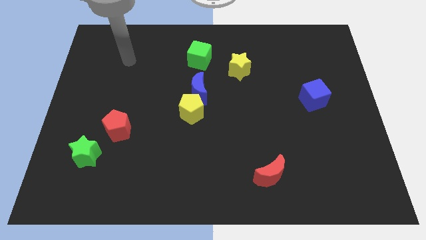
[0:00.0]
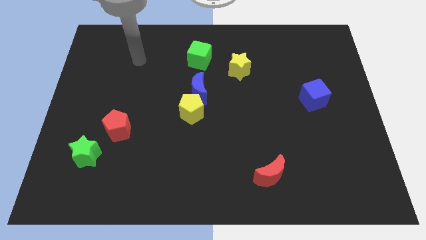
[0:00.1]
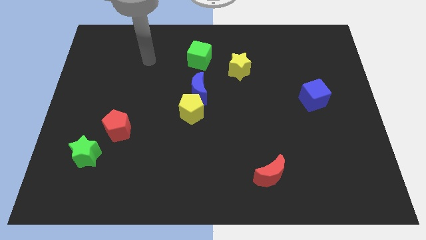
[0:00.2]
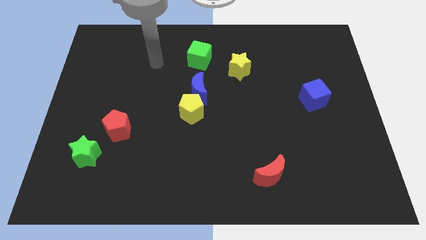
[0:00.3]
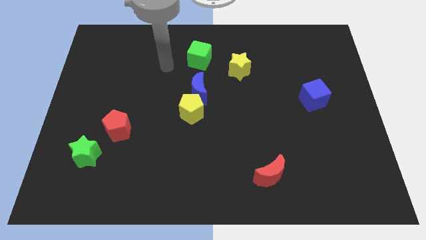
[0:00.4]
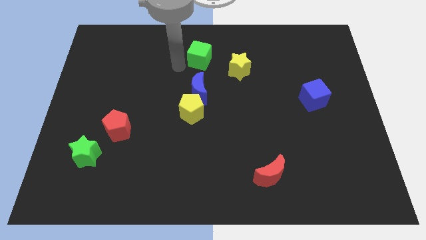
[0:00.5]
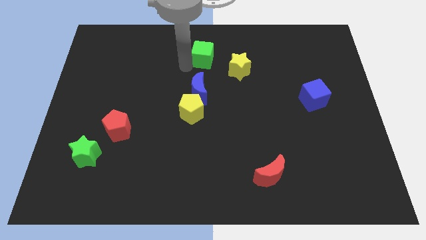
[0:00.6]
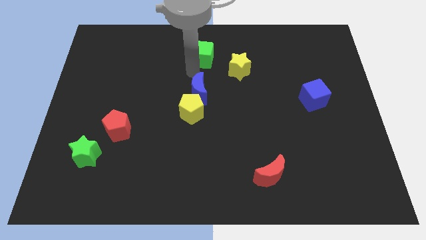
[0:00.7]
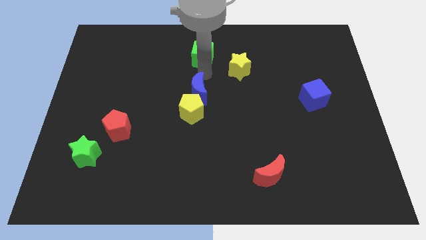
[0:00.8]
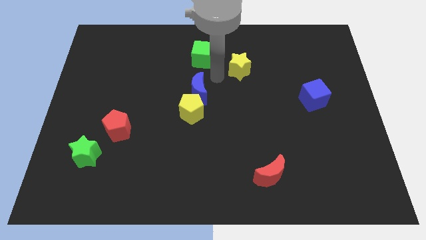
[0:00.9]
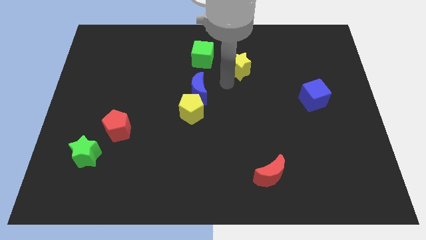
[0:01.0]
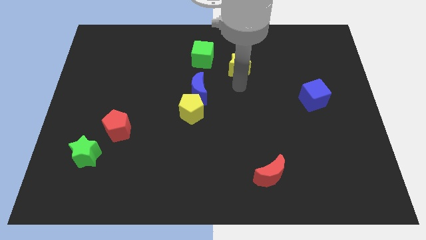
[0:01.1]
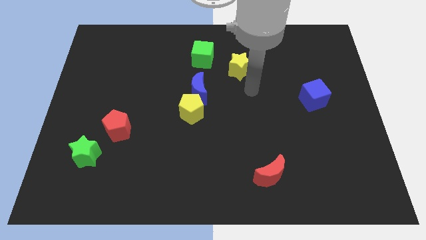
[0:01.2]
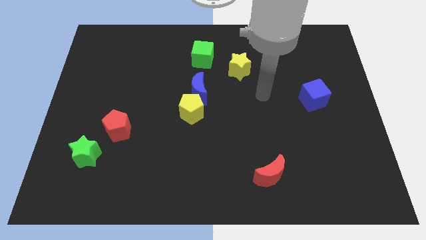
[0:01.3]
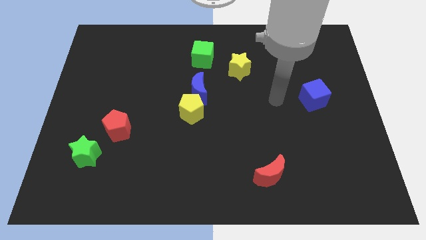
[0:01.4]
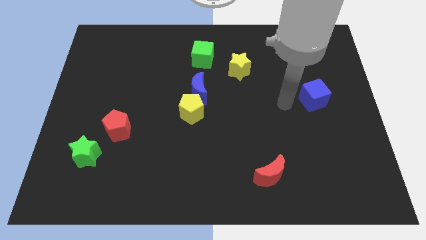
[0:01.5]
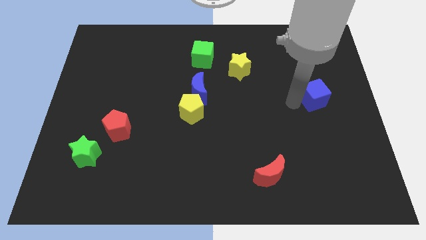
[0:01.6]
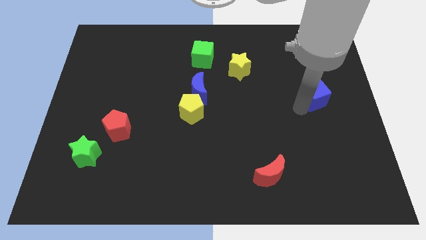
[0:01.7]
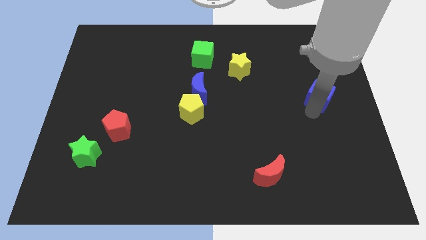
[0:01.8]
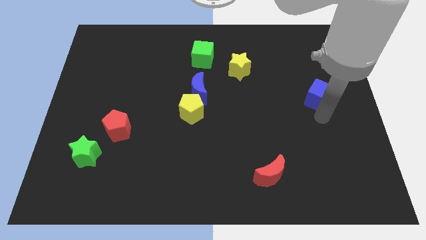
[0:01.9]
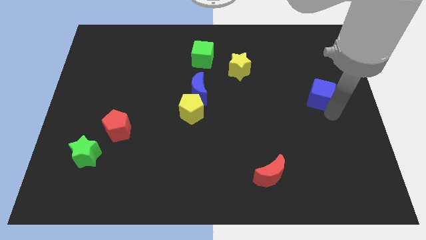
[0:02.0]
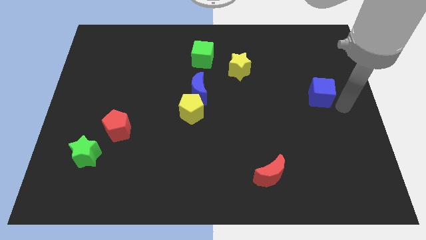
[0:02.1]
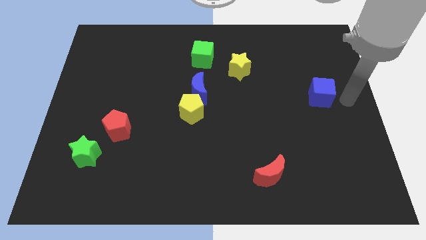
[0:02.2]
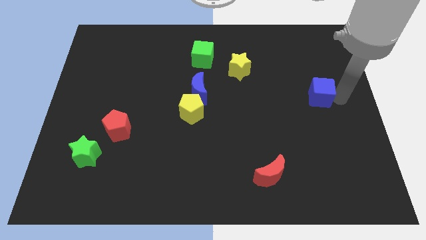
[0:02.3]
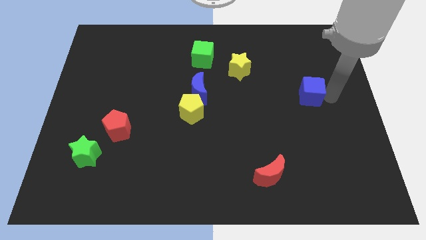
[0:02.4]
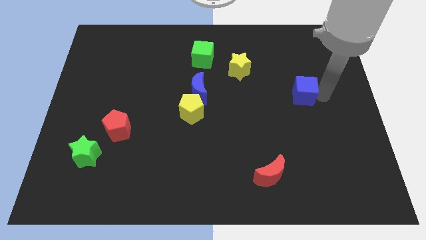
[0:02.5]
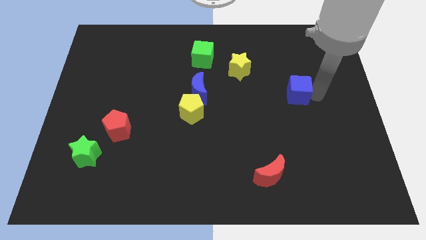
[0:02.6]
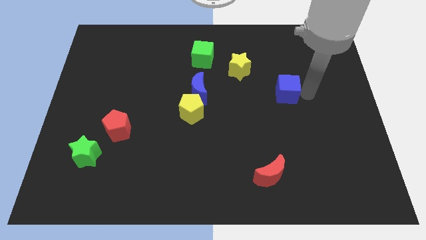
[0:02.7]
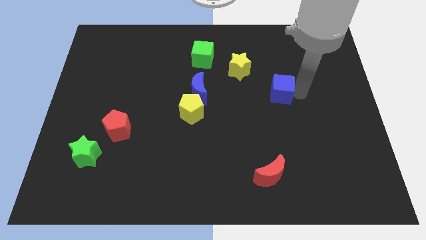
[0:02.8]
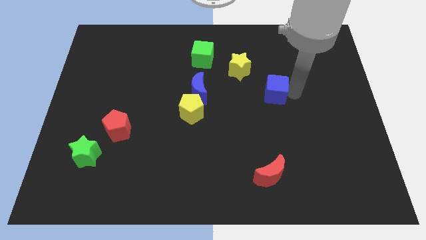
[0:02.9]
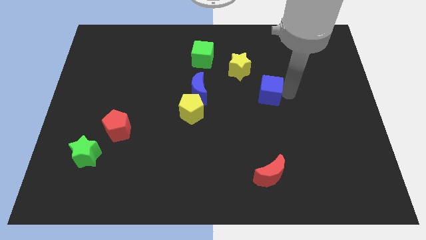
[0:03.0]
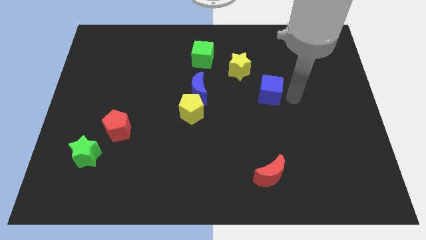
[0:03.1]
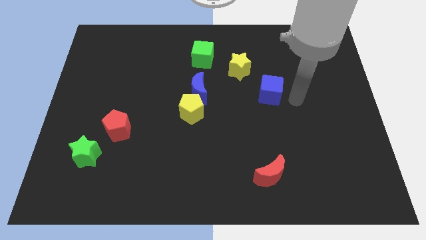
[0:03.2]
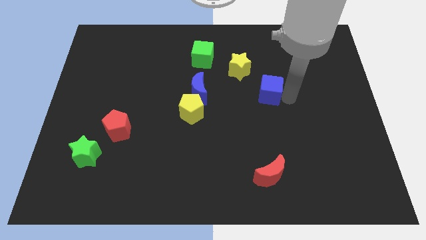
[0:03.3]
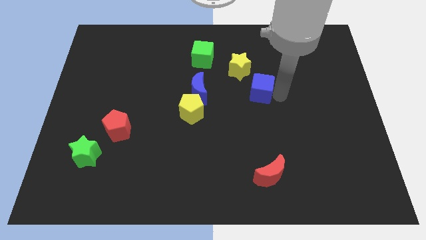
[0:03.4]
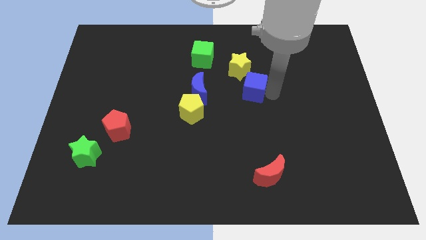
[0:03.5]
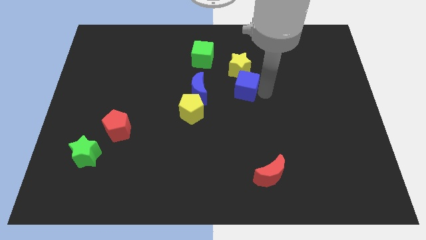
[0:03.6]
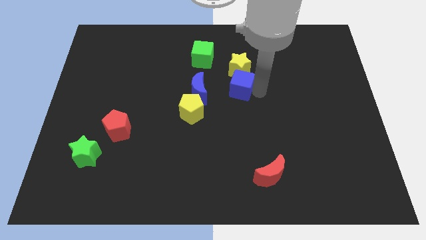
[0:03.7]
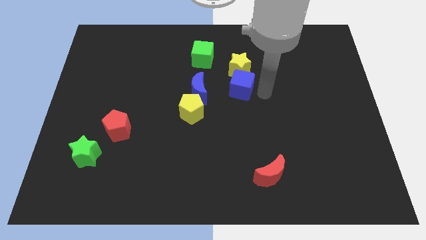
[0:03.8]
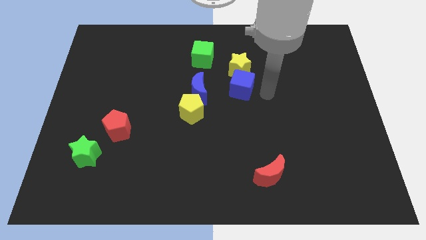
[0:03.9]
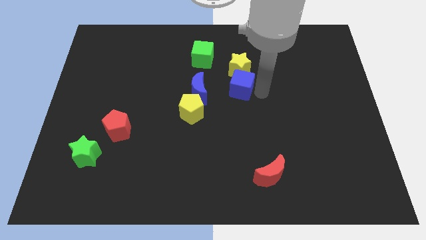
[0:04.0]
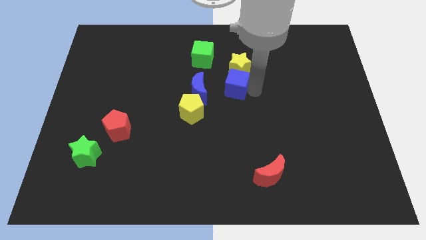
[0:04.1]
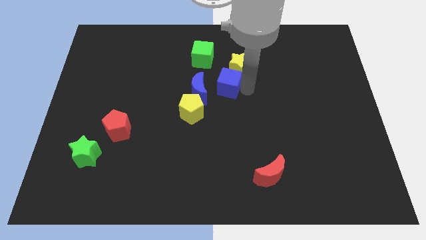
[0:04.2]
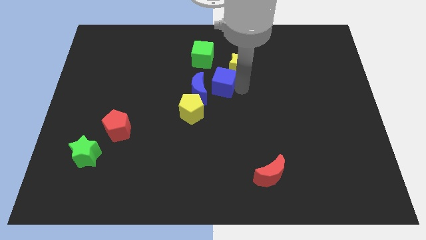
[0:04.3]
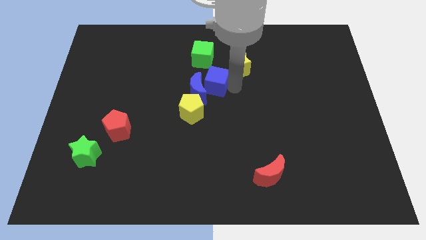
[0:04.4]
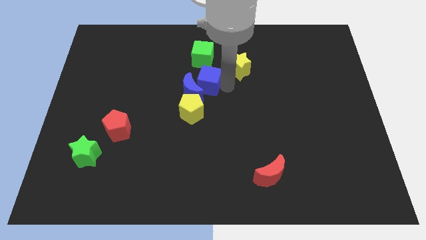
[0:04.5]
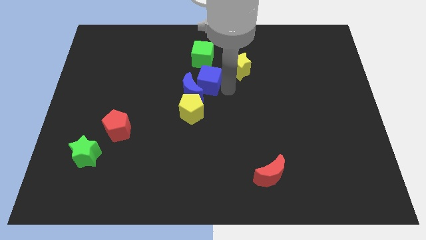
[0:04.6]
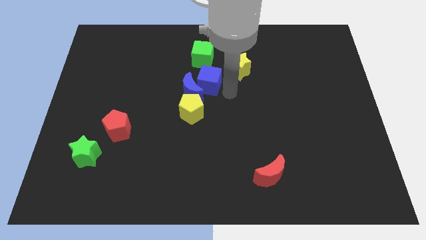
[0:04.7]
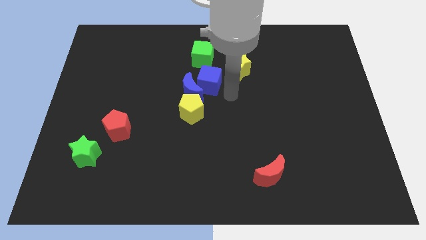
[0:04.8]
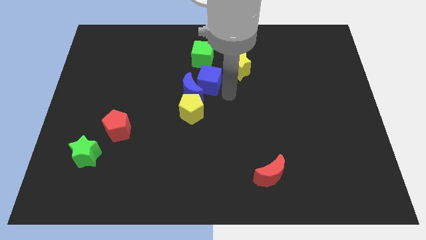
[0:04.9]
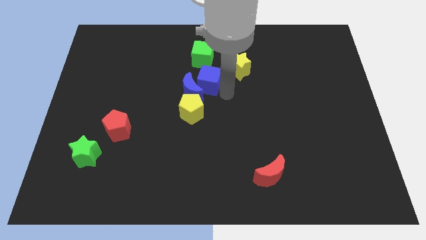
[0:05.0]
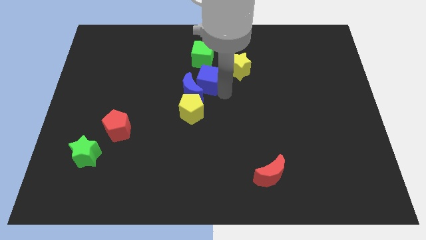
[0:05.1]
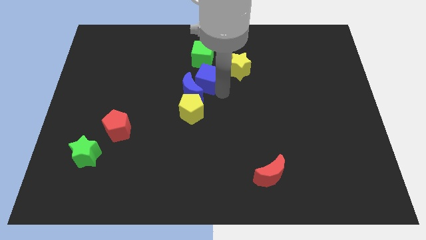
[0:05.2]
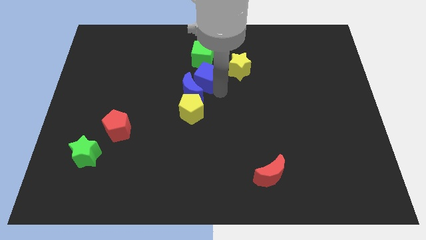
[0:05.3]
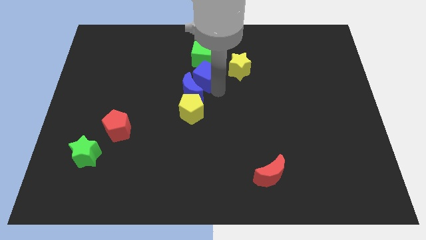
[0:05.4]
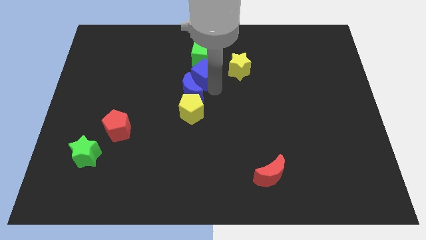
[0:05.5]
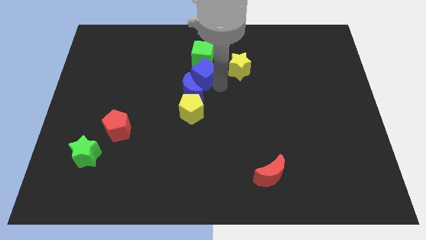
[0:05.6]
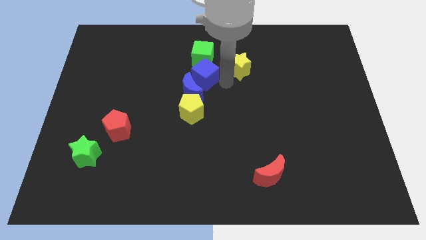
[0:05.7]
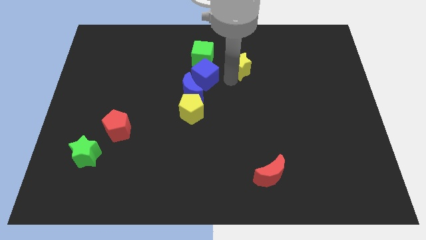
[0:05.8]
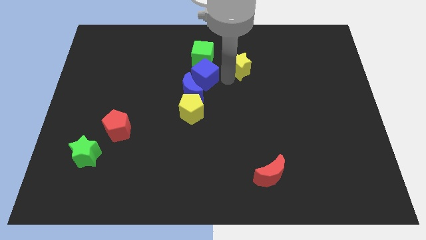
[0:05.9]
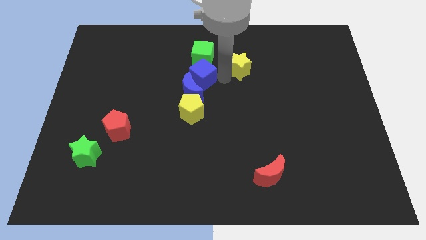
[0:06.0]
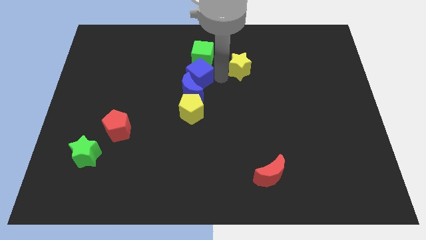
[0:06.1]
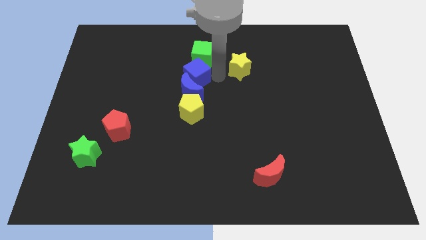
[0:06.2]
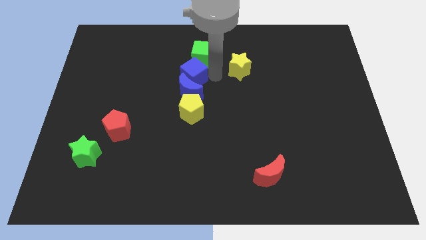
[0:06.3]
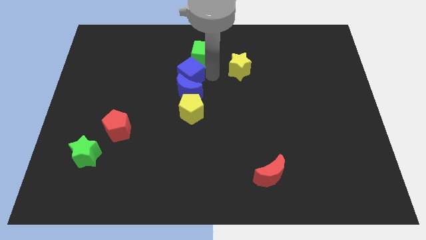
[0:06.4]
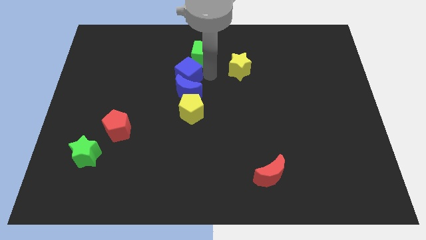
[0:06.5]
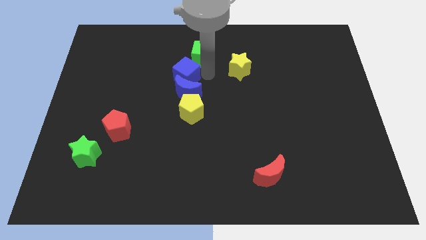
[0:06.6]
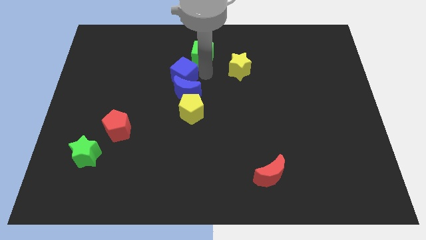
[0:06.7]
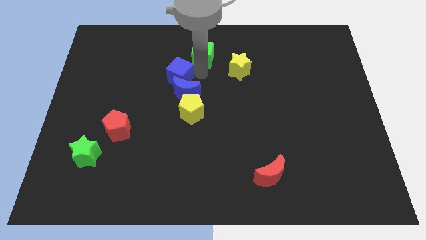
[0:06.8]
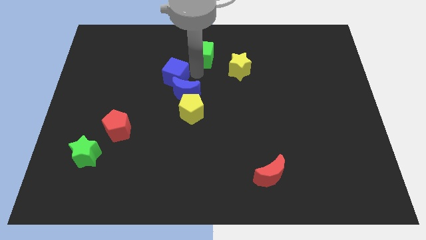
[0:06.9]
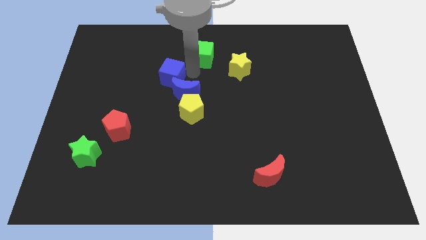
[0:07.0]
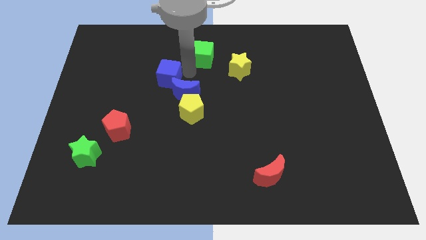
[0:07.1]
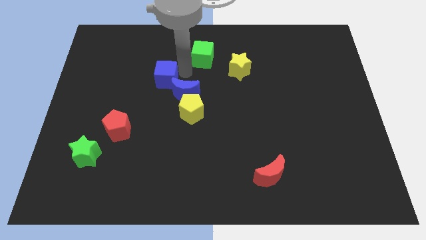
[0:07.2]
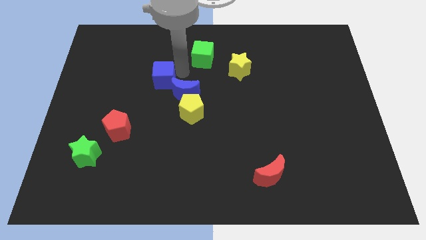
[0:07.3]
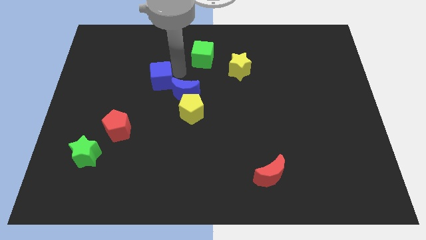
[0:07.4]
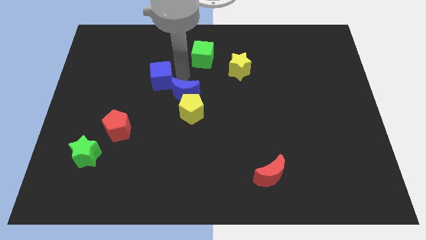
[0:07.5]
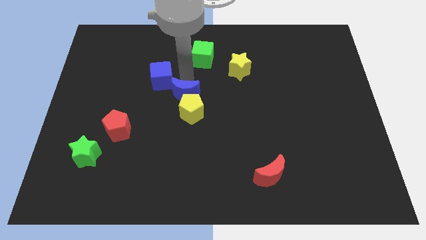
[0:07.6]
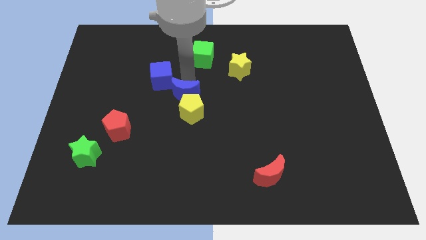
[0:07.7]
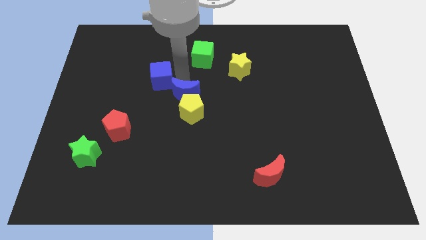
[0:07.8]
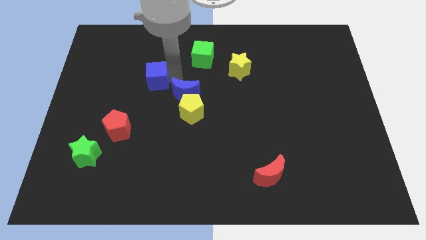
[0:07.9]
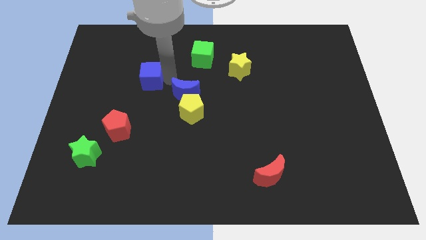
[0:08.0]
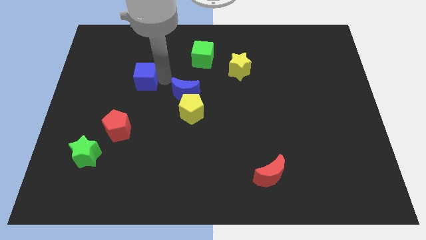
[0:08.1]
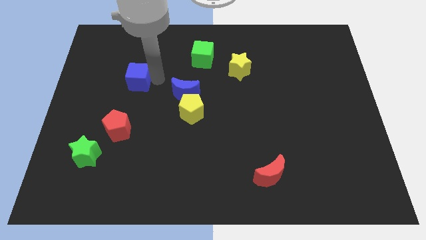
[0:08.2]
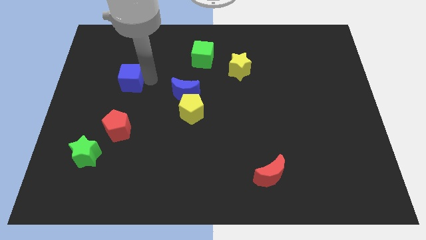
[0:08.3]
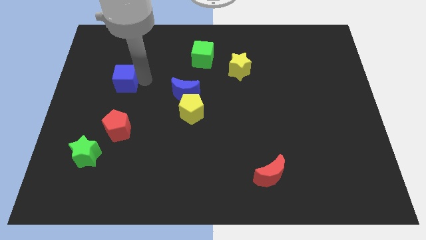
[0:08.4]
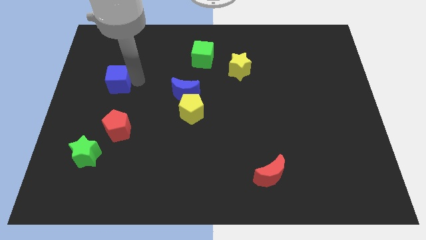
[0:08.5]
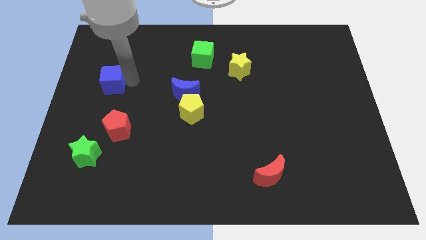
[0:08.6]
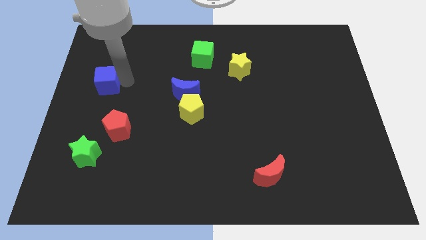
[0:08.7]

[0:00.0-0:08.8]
move the blue cube to the center left
